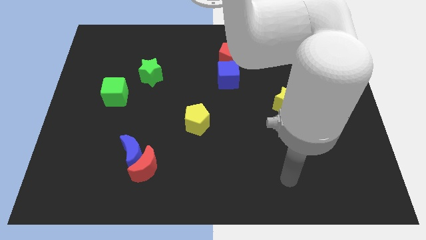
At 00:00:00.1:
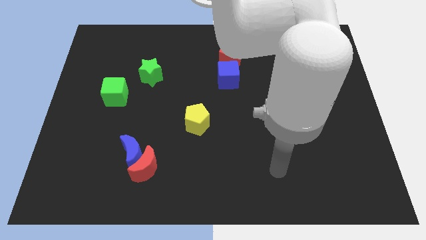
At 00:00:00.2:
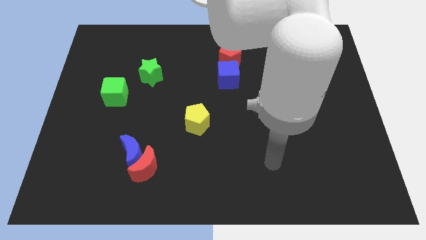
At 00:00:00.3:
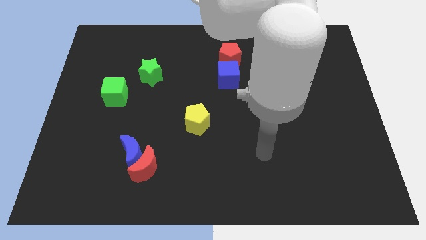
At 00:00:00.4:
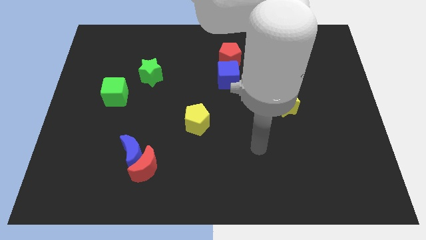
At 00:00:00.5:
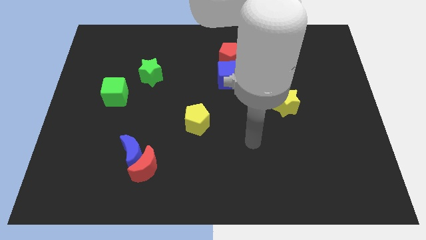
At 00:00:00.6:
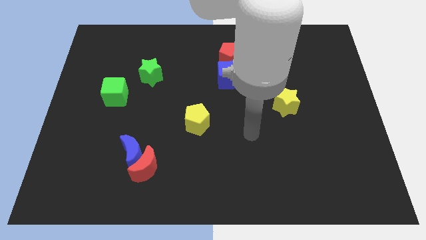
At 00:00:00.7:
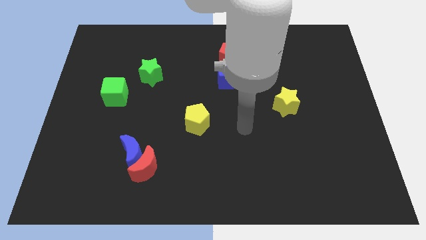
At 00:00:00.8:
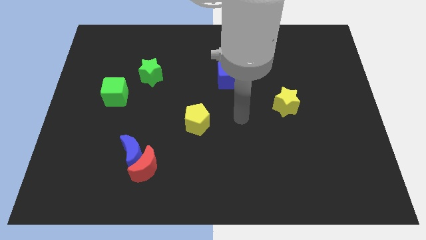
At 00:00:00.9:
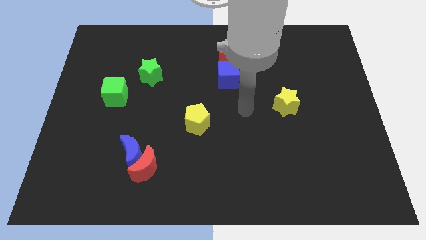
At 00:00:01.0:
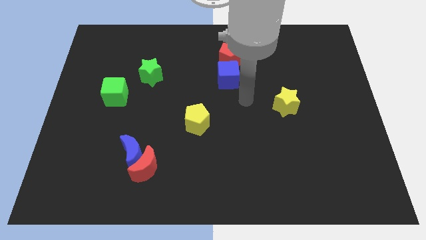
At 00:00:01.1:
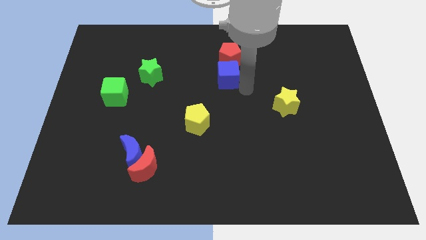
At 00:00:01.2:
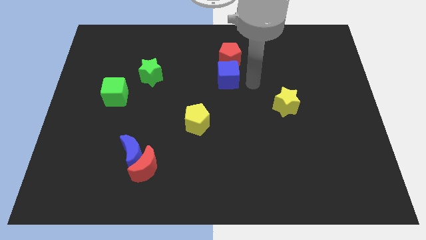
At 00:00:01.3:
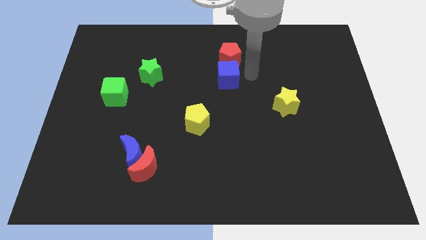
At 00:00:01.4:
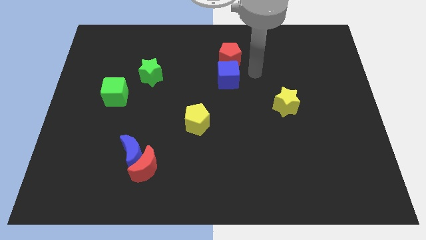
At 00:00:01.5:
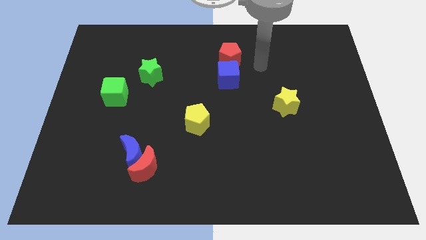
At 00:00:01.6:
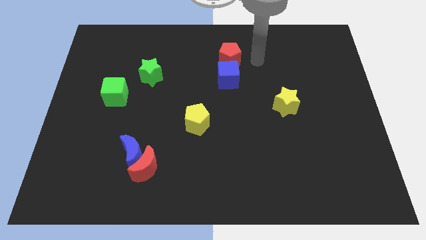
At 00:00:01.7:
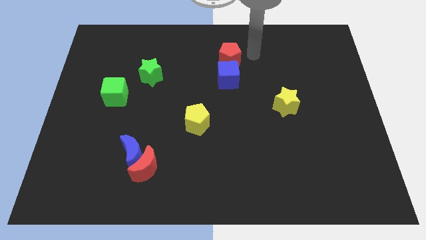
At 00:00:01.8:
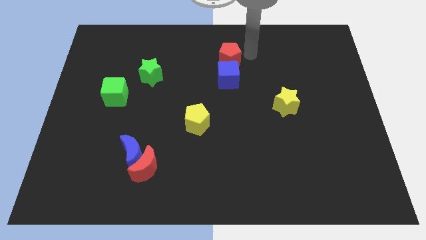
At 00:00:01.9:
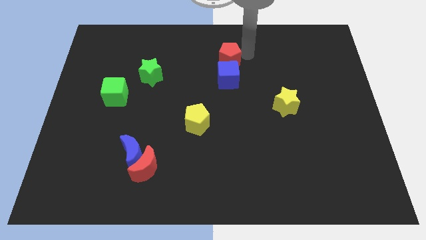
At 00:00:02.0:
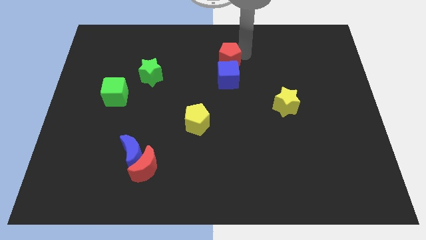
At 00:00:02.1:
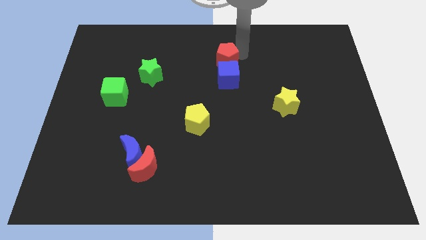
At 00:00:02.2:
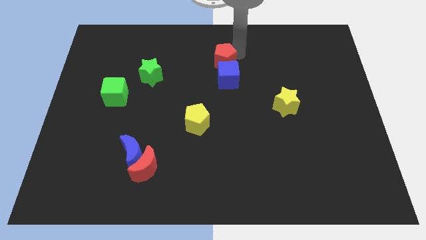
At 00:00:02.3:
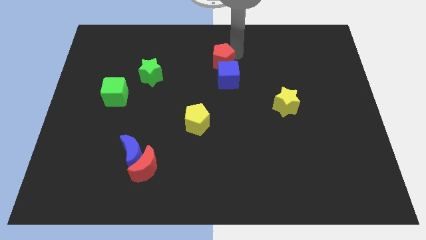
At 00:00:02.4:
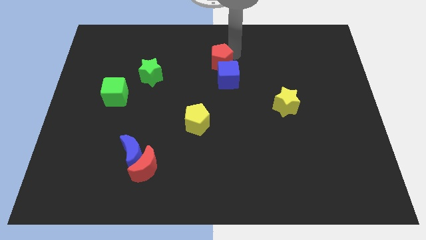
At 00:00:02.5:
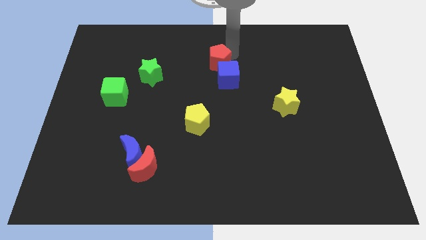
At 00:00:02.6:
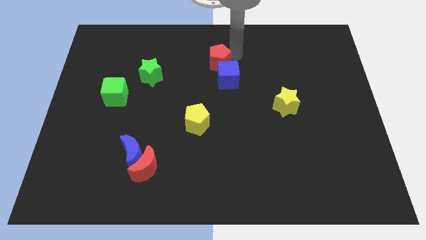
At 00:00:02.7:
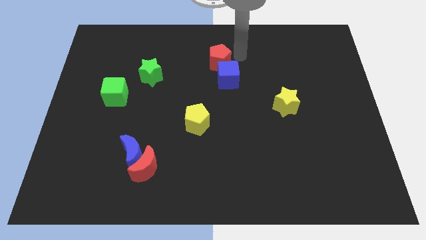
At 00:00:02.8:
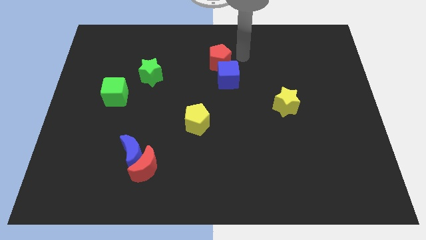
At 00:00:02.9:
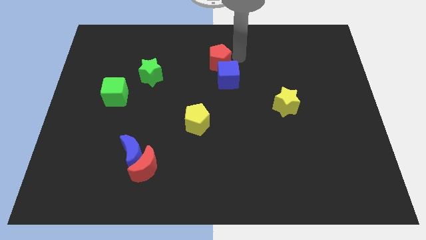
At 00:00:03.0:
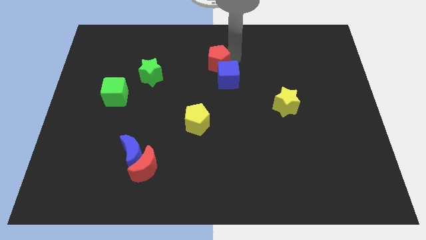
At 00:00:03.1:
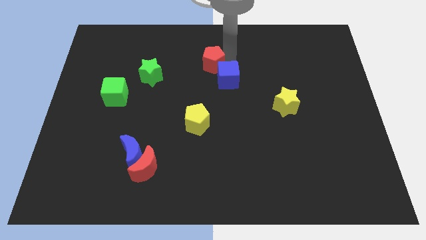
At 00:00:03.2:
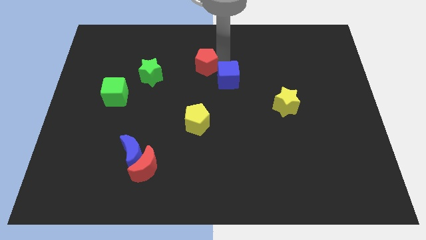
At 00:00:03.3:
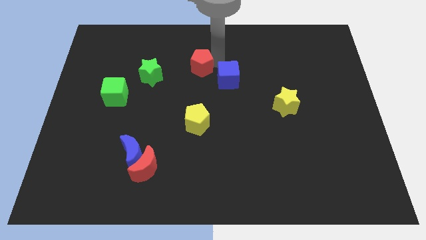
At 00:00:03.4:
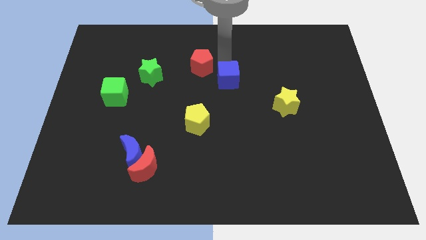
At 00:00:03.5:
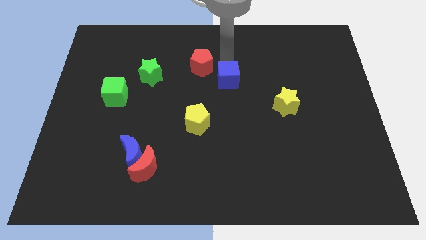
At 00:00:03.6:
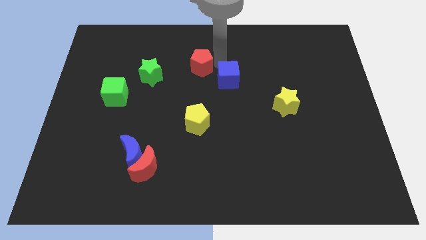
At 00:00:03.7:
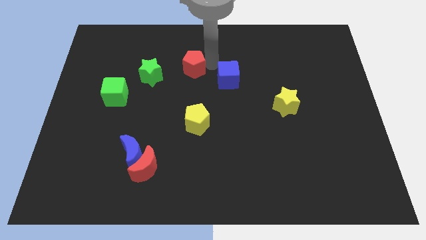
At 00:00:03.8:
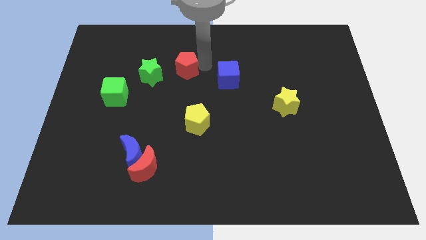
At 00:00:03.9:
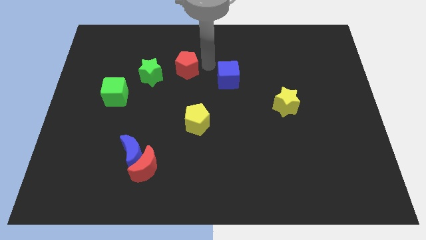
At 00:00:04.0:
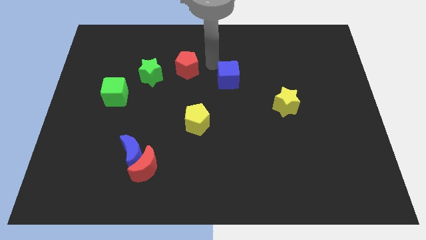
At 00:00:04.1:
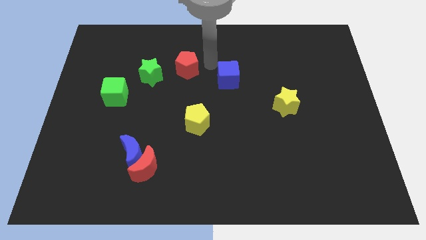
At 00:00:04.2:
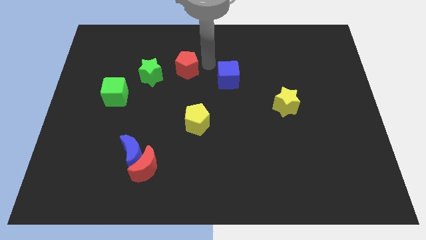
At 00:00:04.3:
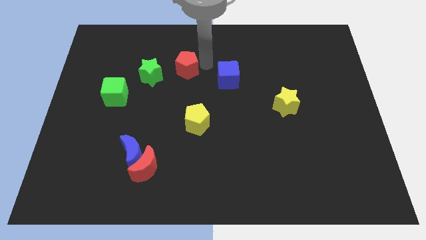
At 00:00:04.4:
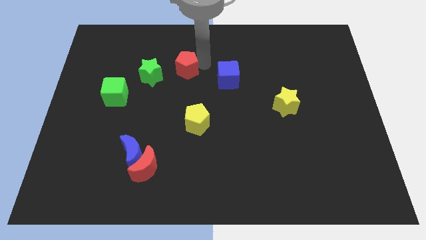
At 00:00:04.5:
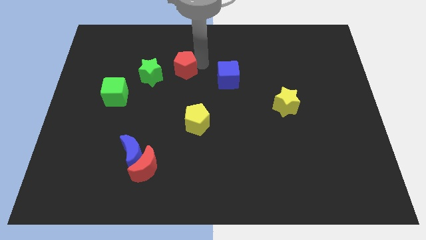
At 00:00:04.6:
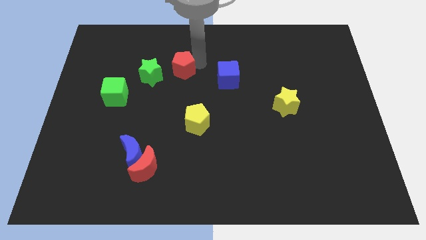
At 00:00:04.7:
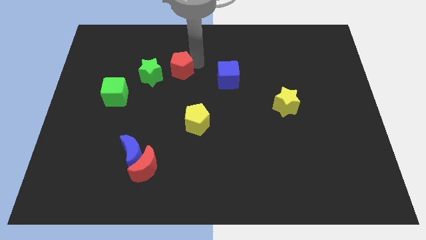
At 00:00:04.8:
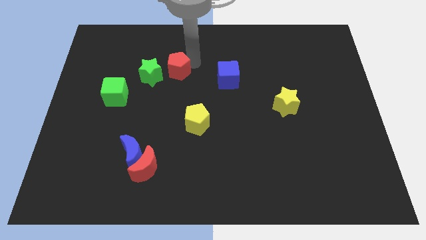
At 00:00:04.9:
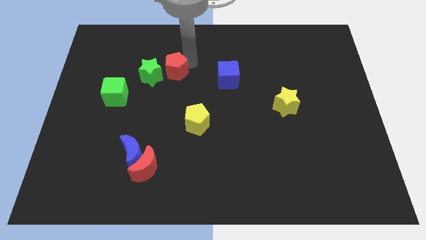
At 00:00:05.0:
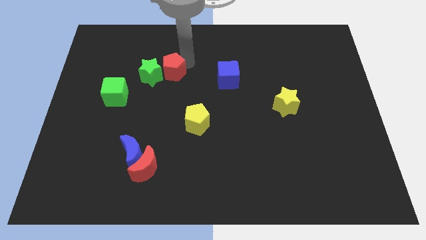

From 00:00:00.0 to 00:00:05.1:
slide the red pentagon close to the green star

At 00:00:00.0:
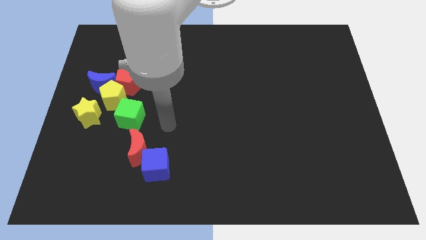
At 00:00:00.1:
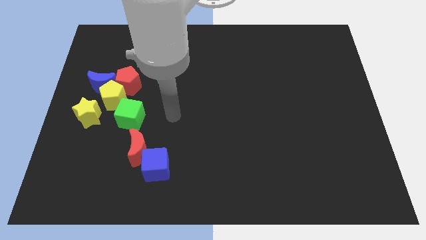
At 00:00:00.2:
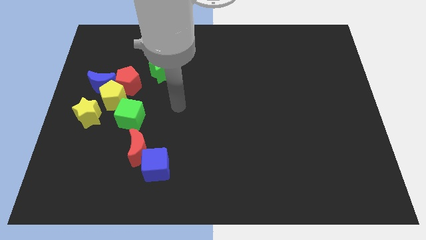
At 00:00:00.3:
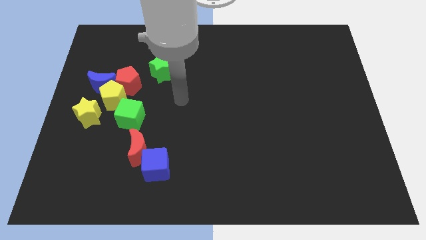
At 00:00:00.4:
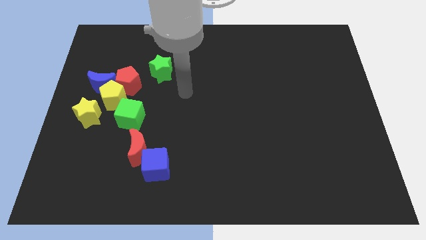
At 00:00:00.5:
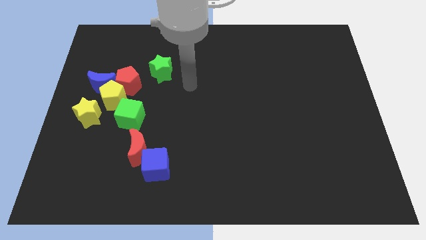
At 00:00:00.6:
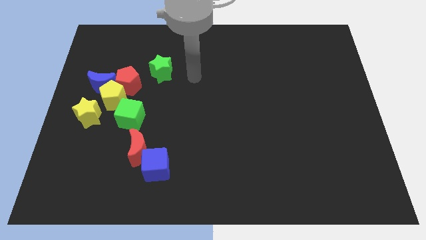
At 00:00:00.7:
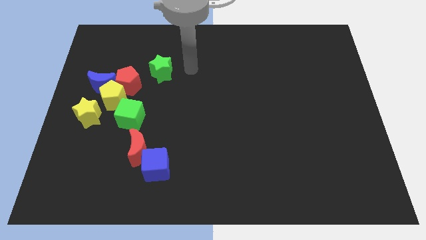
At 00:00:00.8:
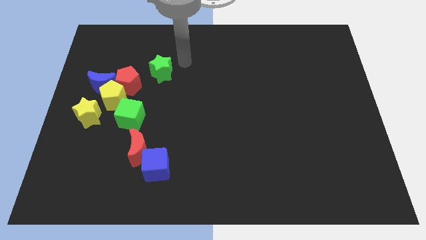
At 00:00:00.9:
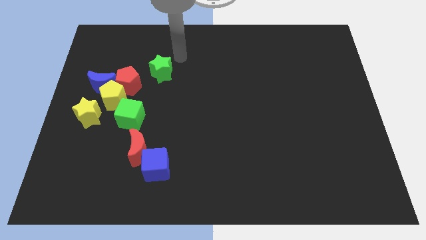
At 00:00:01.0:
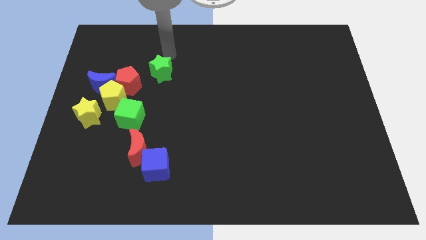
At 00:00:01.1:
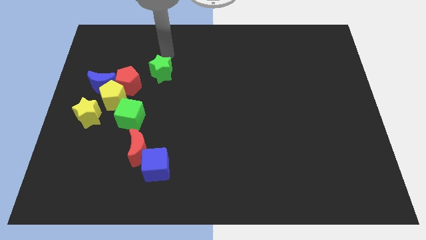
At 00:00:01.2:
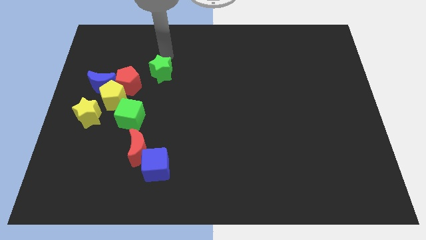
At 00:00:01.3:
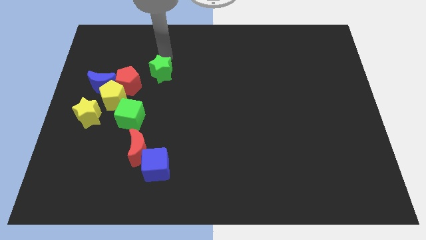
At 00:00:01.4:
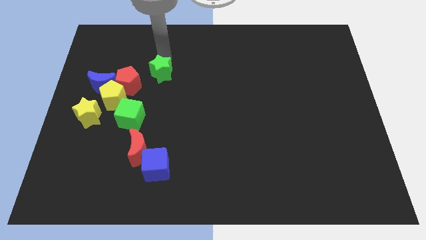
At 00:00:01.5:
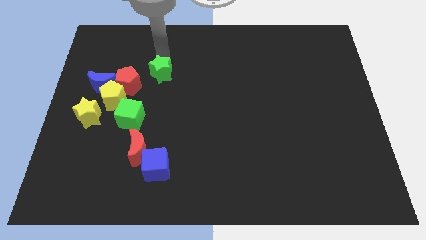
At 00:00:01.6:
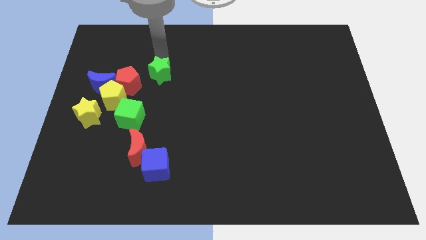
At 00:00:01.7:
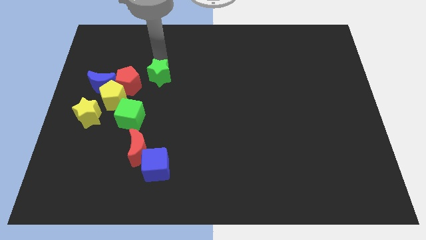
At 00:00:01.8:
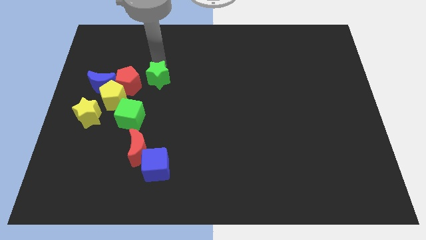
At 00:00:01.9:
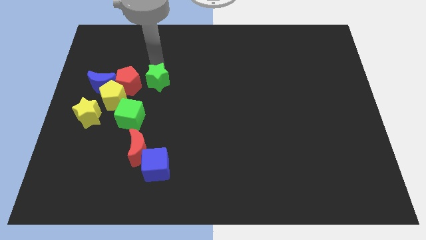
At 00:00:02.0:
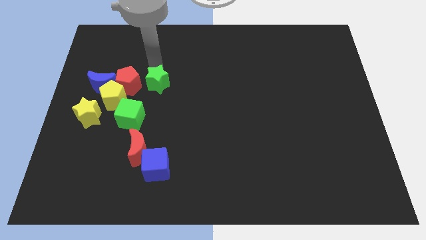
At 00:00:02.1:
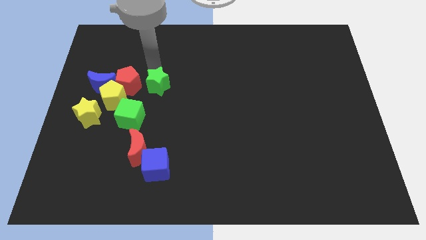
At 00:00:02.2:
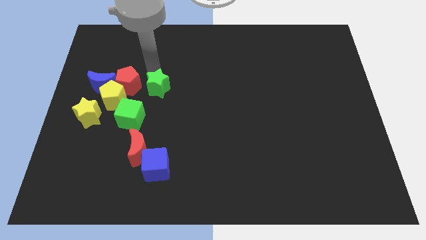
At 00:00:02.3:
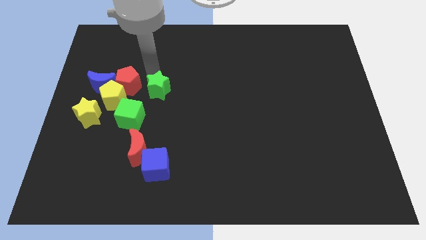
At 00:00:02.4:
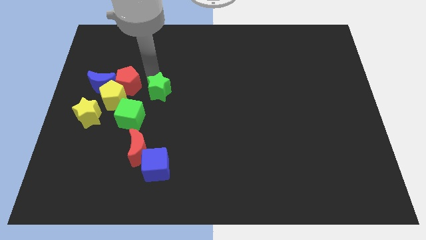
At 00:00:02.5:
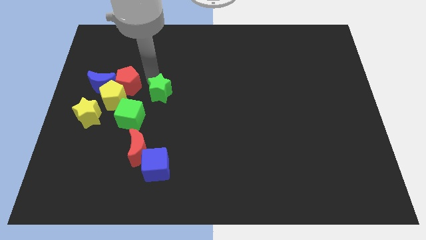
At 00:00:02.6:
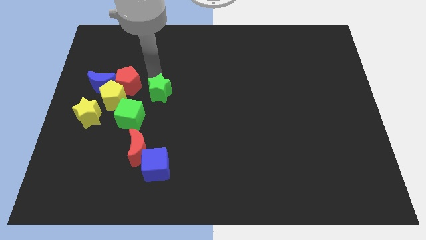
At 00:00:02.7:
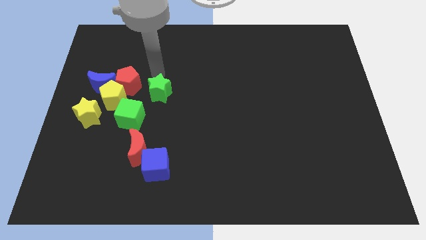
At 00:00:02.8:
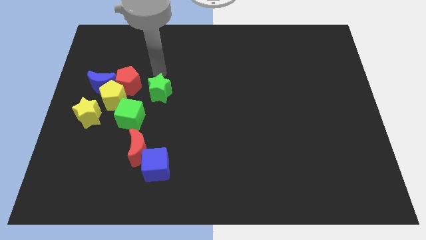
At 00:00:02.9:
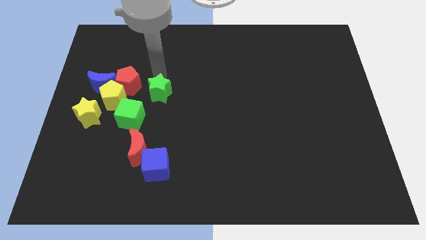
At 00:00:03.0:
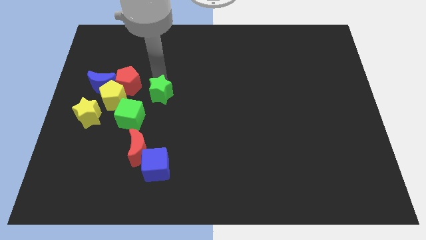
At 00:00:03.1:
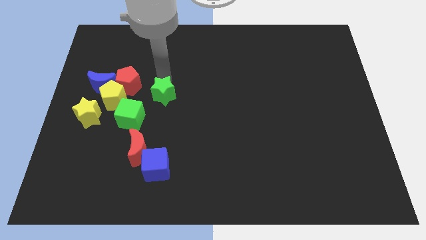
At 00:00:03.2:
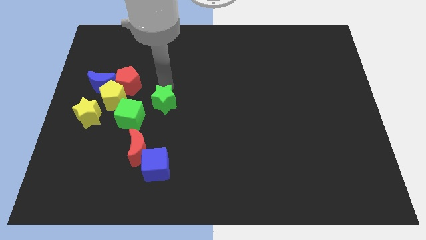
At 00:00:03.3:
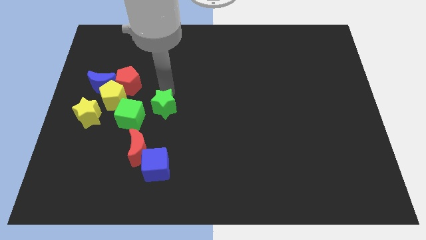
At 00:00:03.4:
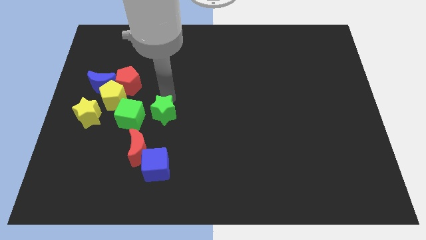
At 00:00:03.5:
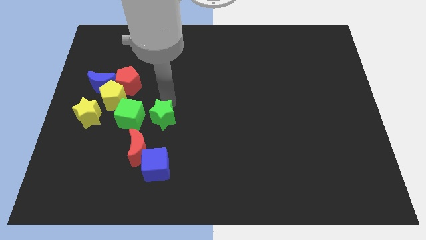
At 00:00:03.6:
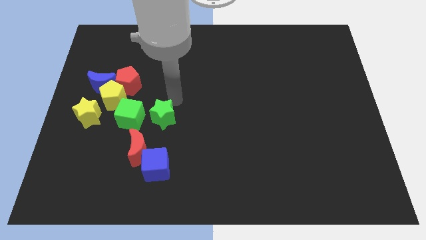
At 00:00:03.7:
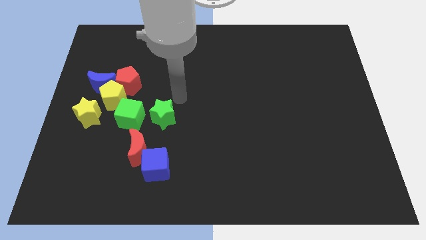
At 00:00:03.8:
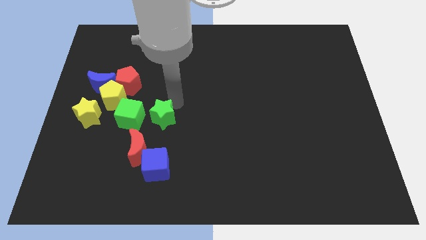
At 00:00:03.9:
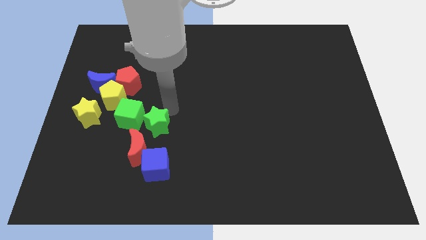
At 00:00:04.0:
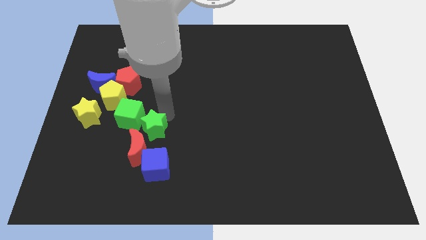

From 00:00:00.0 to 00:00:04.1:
put the green star close to the red moon
